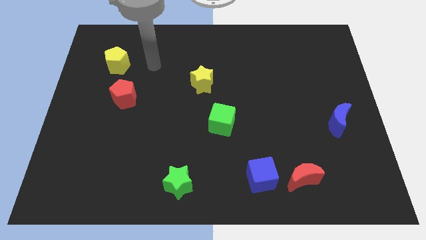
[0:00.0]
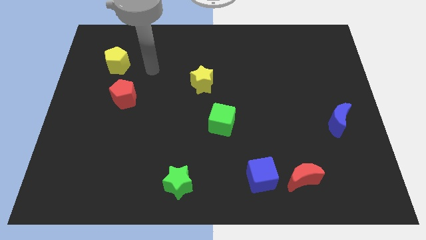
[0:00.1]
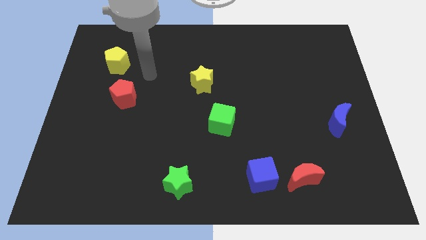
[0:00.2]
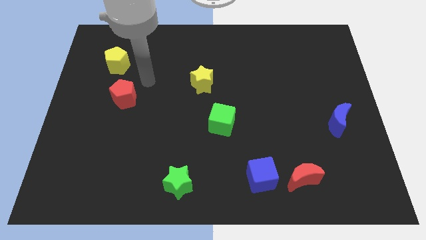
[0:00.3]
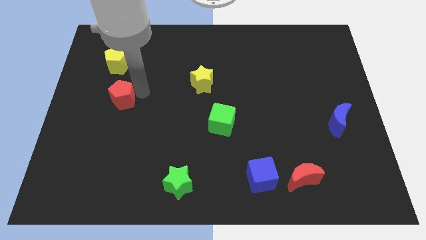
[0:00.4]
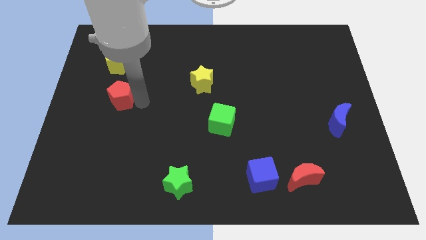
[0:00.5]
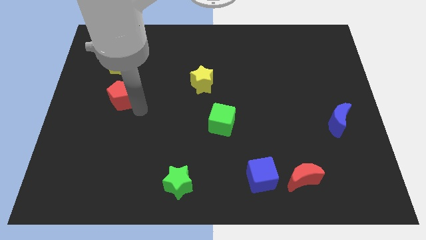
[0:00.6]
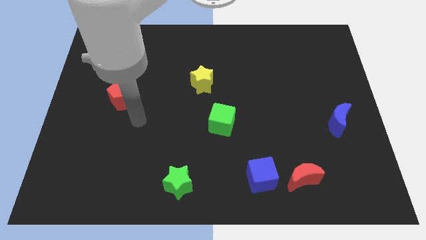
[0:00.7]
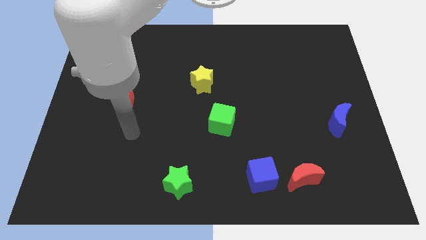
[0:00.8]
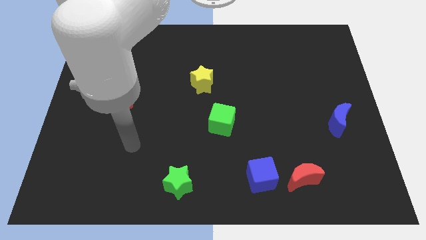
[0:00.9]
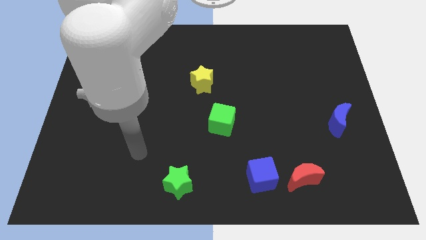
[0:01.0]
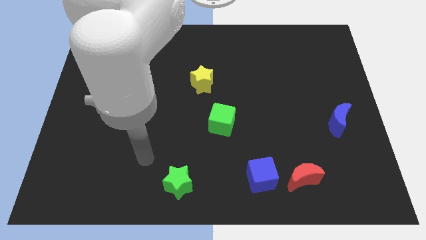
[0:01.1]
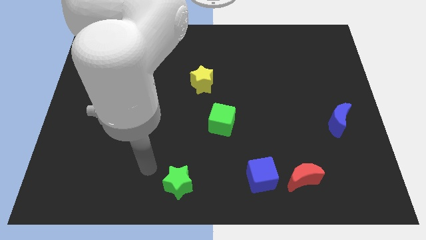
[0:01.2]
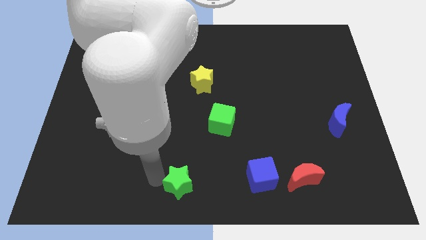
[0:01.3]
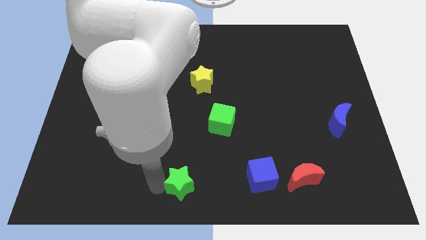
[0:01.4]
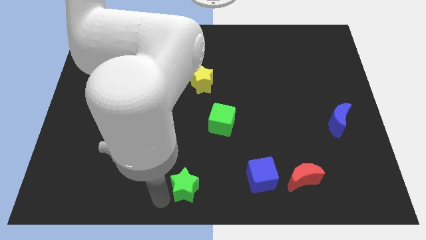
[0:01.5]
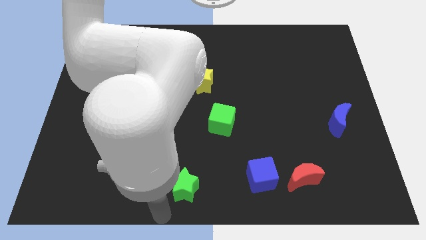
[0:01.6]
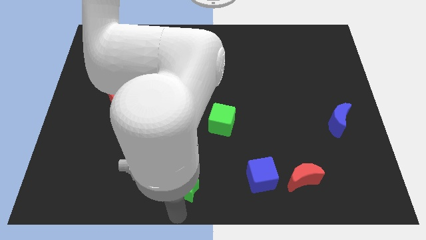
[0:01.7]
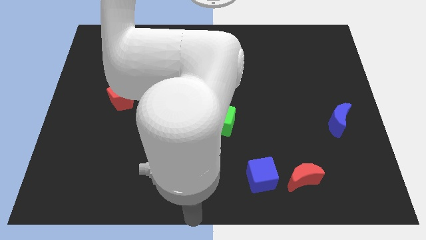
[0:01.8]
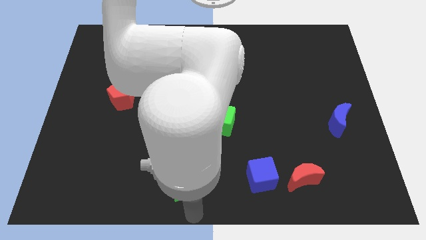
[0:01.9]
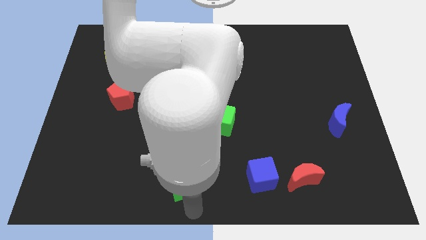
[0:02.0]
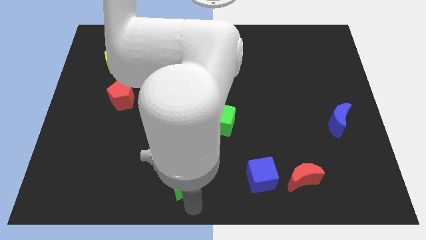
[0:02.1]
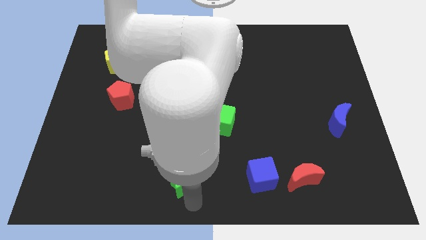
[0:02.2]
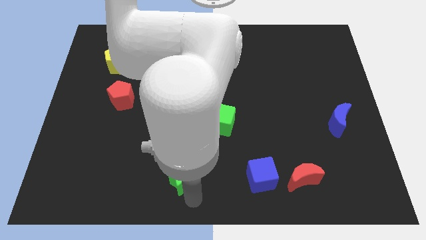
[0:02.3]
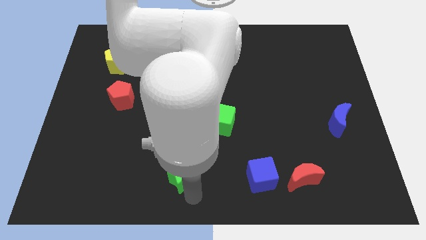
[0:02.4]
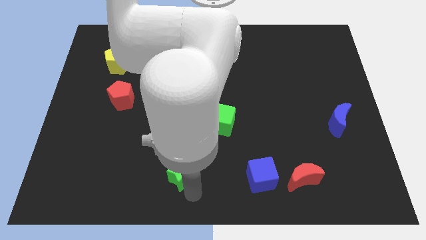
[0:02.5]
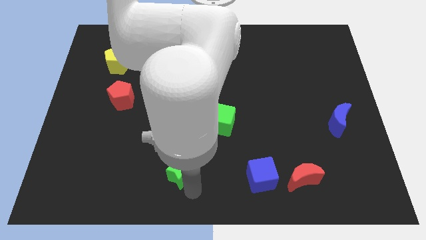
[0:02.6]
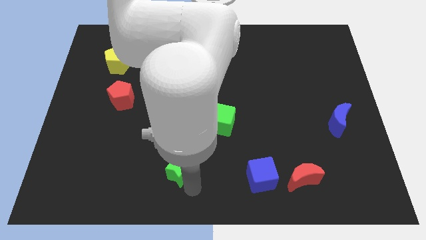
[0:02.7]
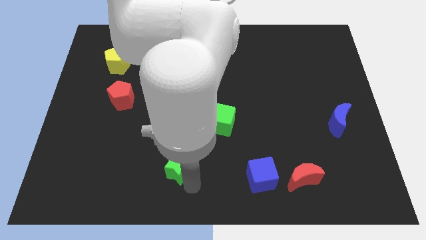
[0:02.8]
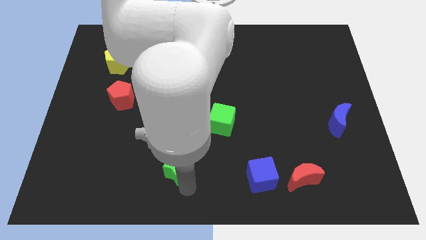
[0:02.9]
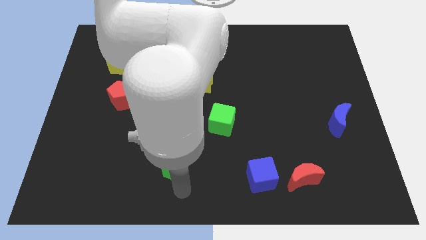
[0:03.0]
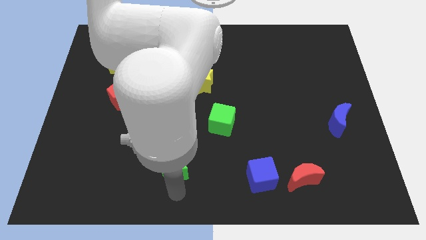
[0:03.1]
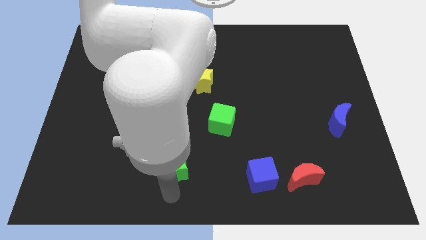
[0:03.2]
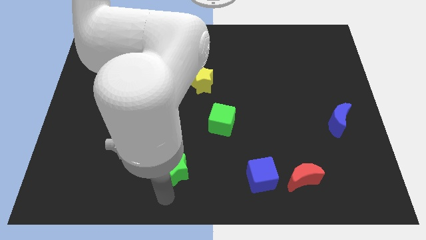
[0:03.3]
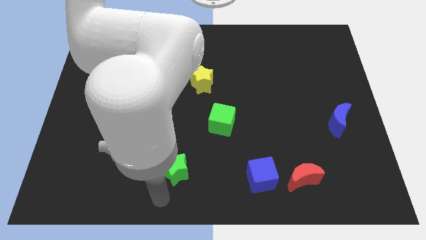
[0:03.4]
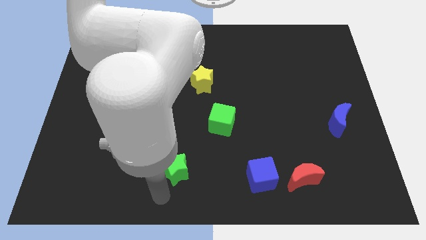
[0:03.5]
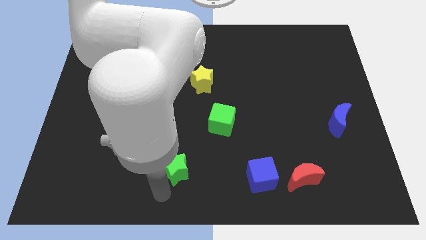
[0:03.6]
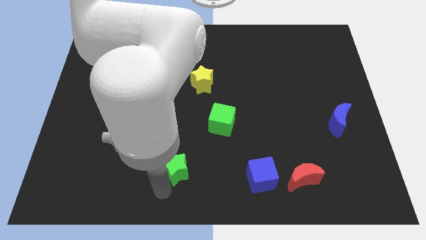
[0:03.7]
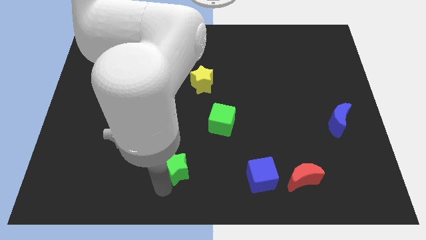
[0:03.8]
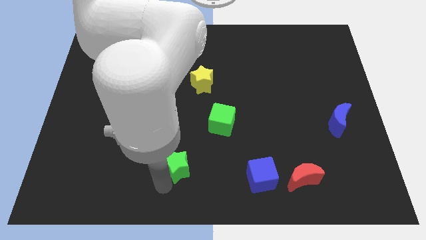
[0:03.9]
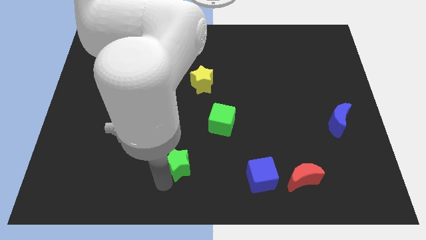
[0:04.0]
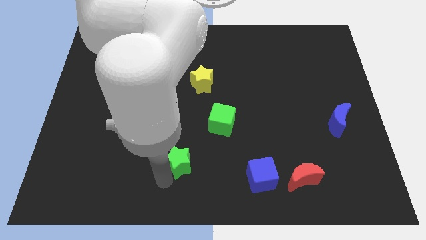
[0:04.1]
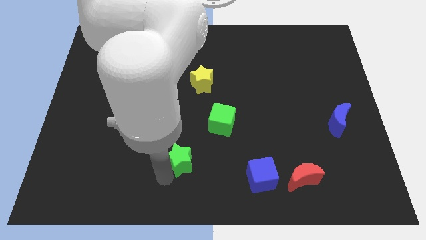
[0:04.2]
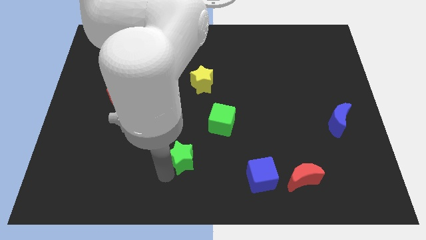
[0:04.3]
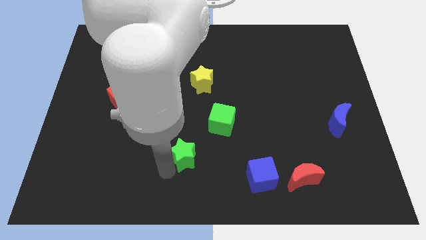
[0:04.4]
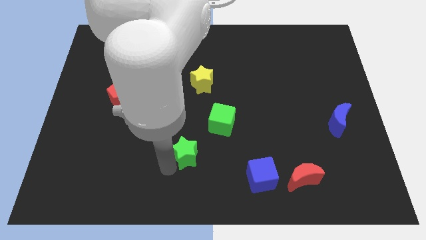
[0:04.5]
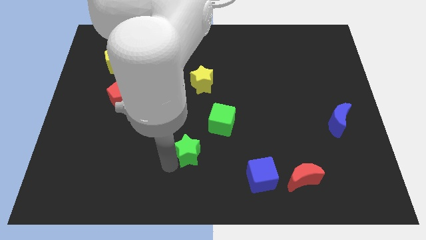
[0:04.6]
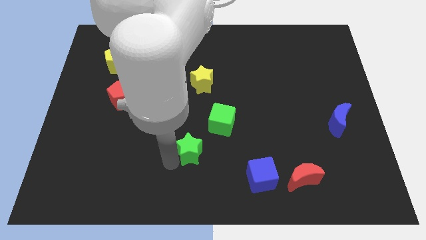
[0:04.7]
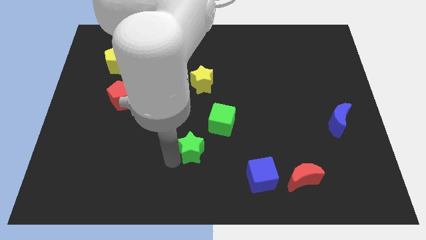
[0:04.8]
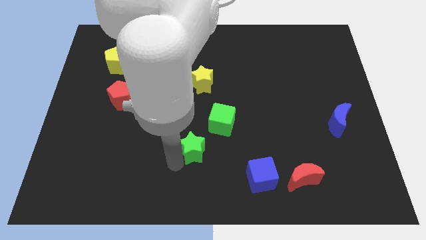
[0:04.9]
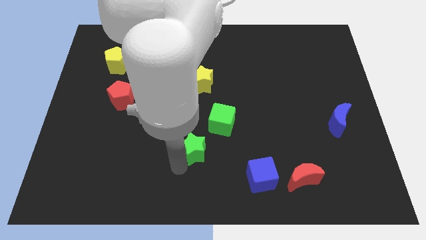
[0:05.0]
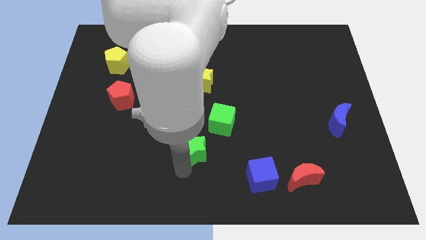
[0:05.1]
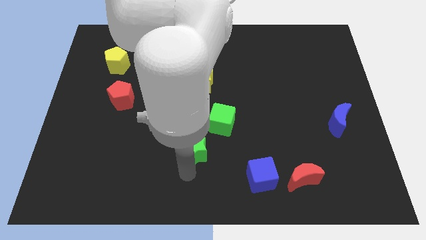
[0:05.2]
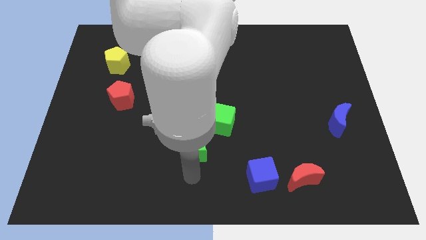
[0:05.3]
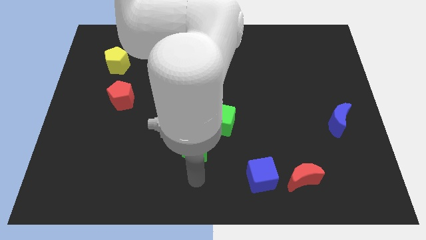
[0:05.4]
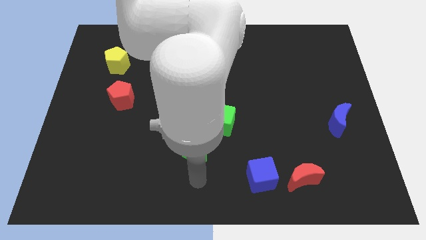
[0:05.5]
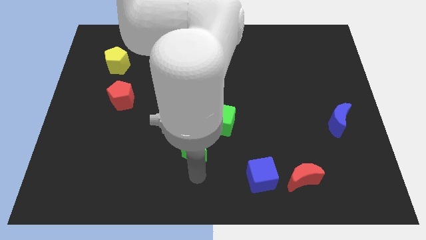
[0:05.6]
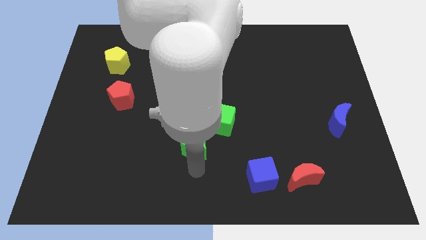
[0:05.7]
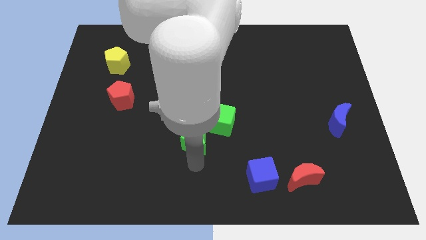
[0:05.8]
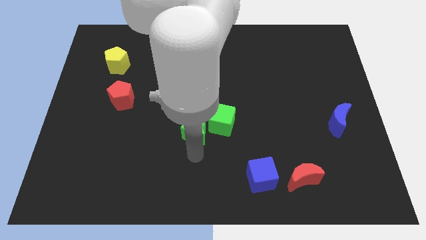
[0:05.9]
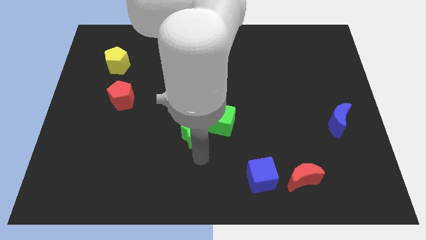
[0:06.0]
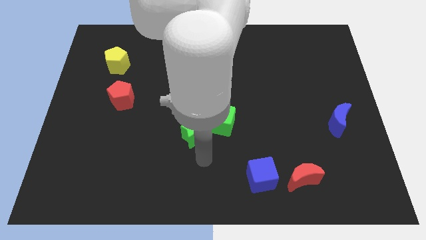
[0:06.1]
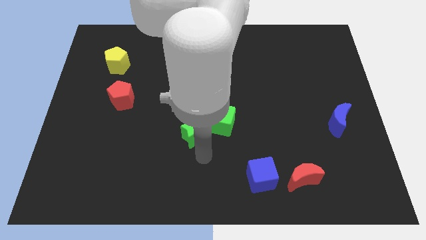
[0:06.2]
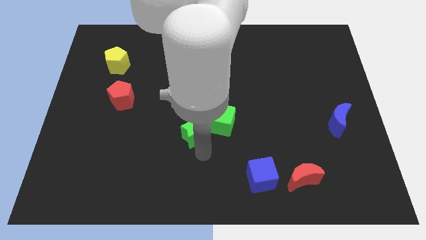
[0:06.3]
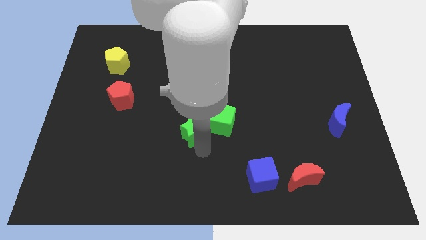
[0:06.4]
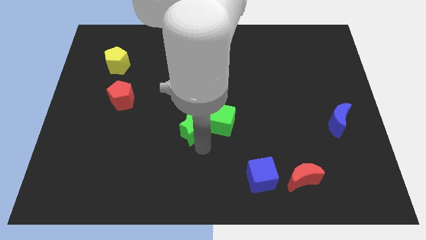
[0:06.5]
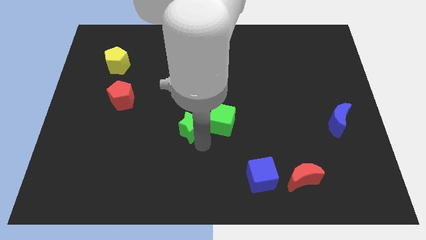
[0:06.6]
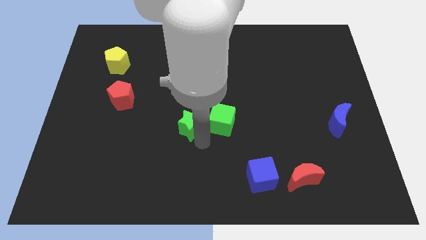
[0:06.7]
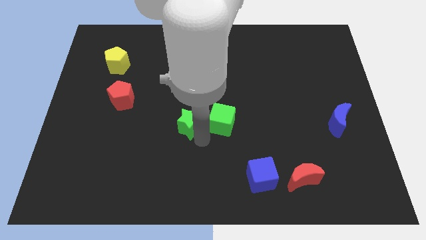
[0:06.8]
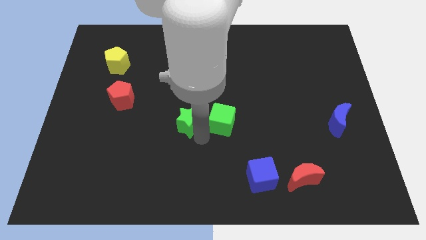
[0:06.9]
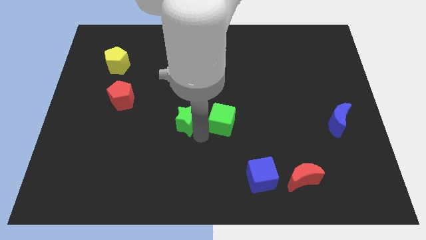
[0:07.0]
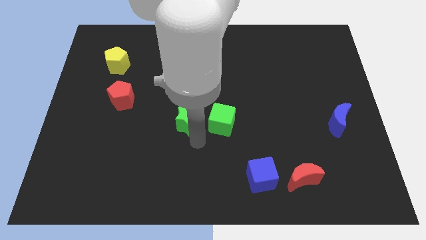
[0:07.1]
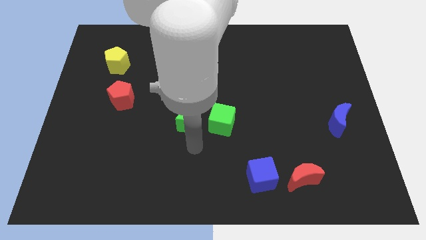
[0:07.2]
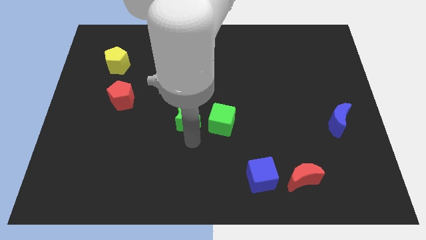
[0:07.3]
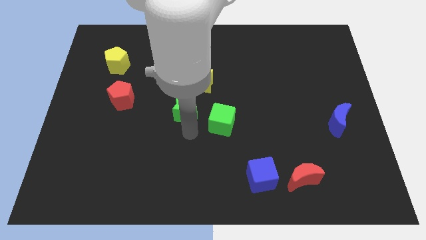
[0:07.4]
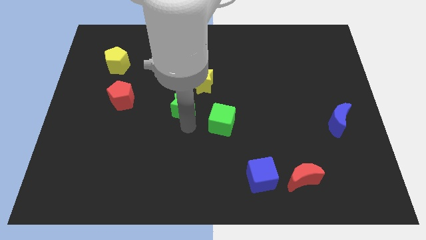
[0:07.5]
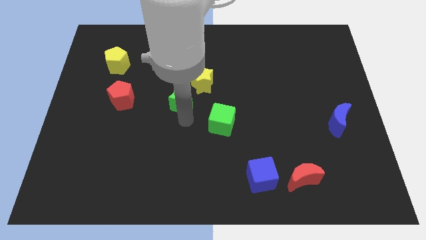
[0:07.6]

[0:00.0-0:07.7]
slide the green star upwards
